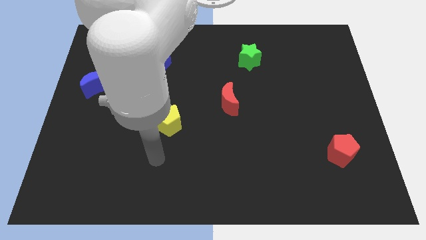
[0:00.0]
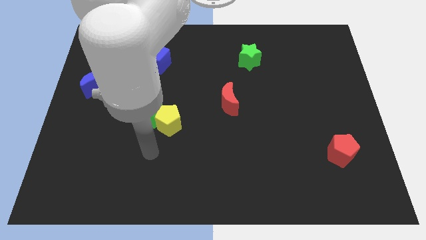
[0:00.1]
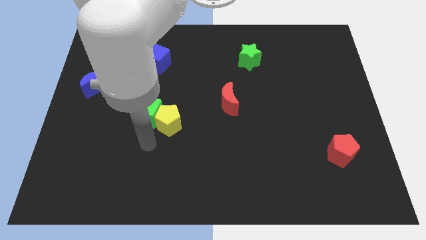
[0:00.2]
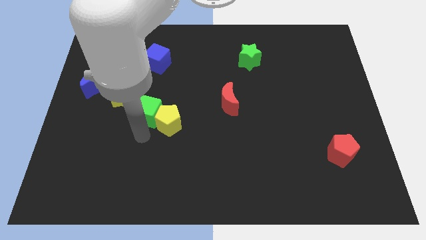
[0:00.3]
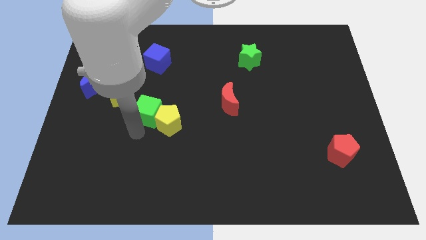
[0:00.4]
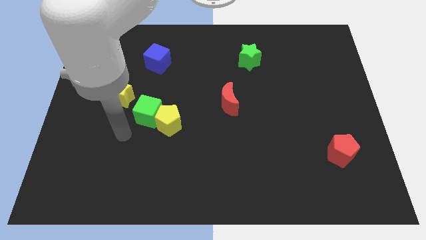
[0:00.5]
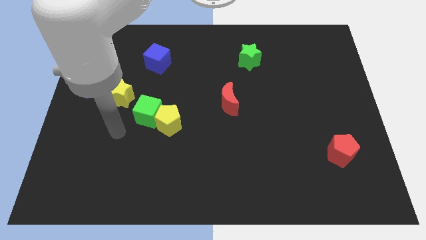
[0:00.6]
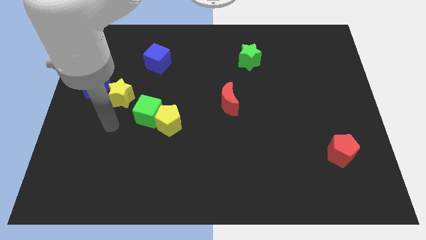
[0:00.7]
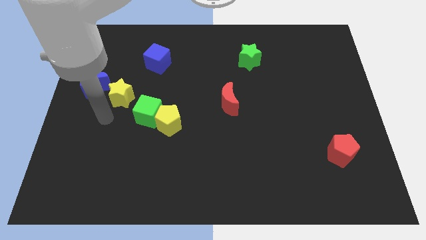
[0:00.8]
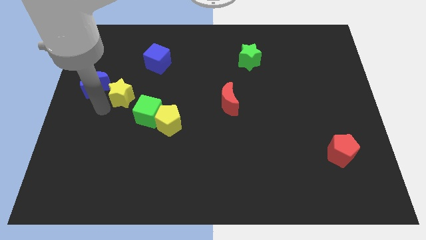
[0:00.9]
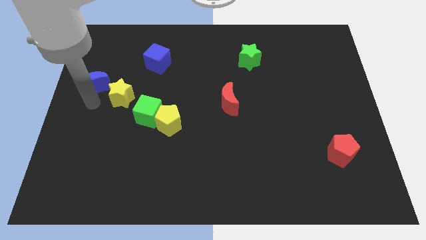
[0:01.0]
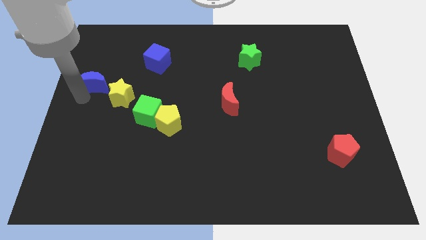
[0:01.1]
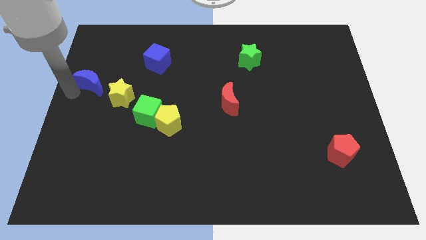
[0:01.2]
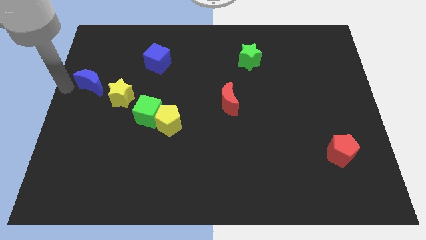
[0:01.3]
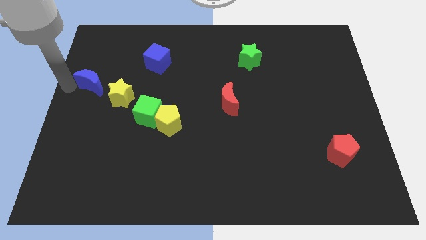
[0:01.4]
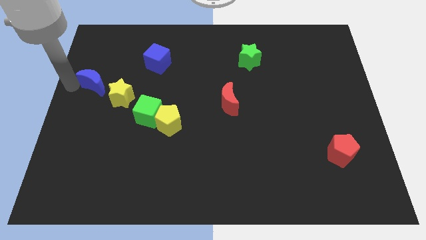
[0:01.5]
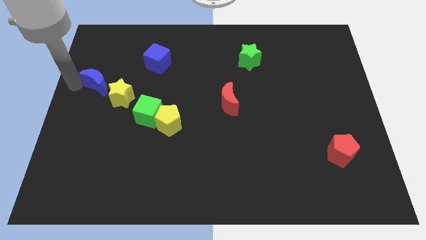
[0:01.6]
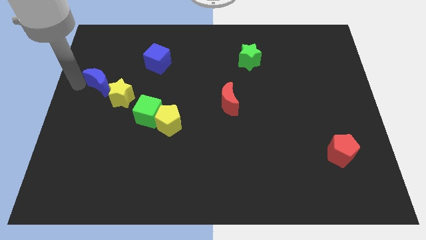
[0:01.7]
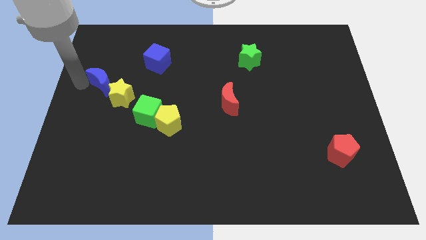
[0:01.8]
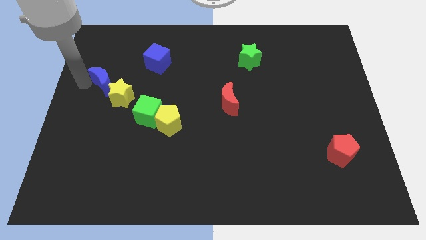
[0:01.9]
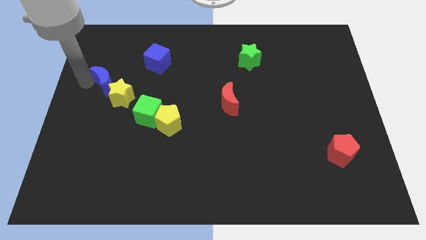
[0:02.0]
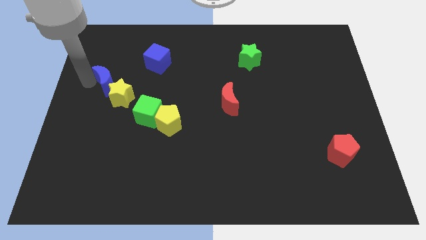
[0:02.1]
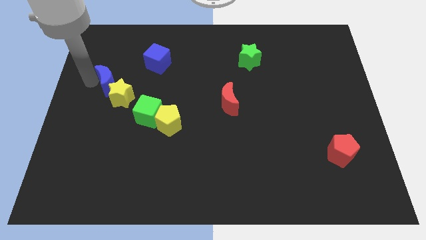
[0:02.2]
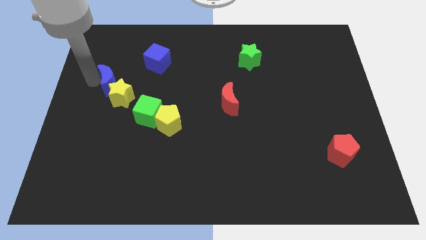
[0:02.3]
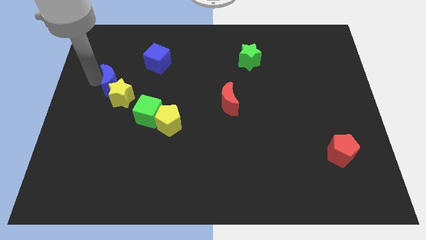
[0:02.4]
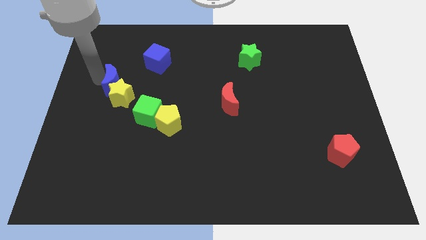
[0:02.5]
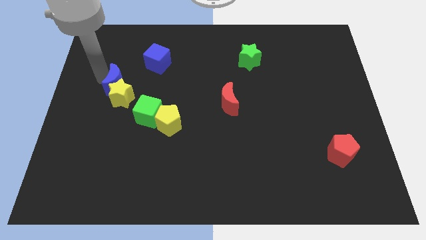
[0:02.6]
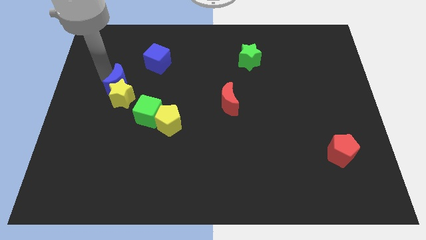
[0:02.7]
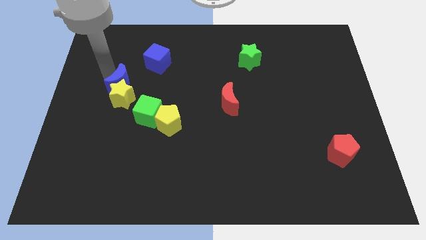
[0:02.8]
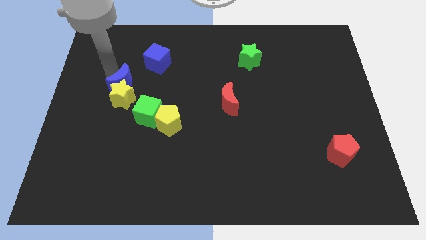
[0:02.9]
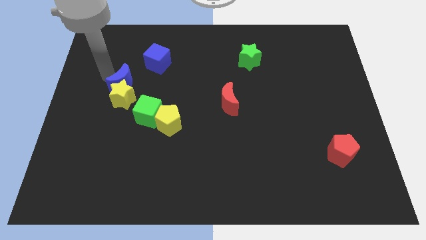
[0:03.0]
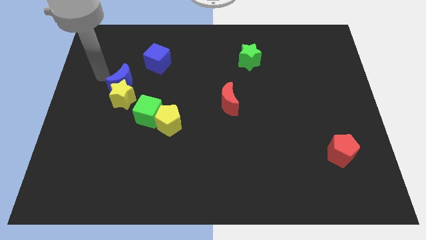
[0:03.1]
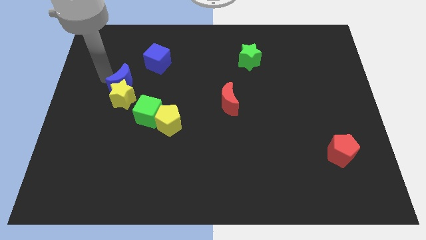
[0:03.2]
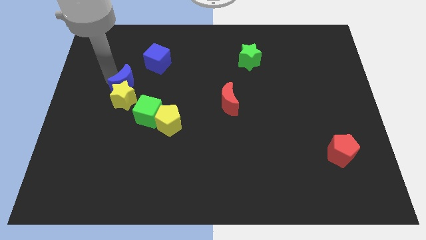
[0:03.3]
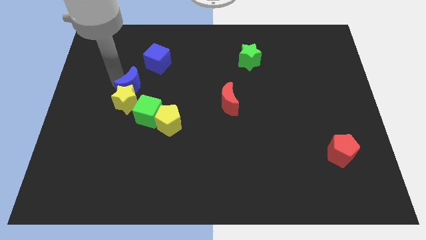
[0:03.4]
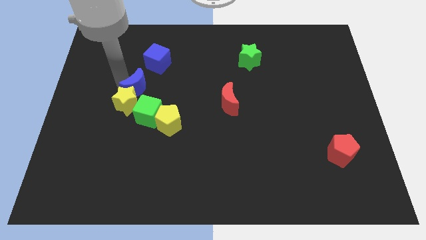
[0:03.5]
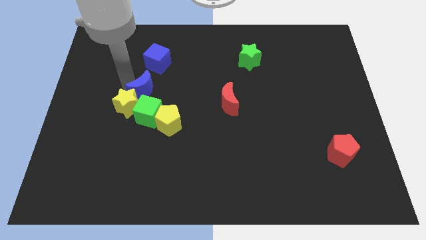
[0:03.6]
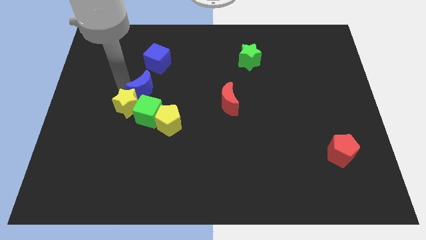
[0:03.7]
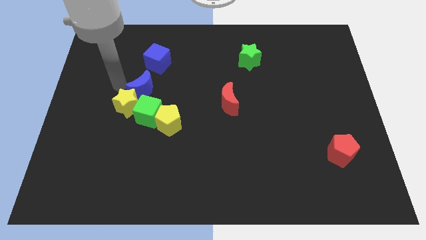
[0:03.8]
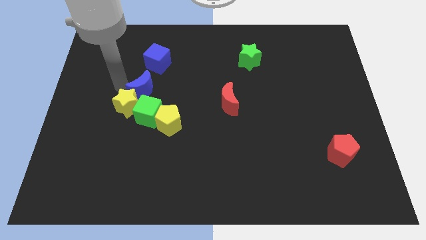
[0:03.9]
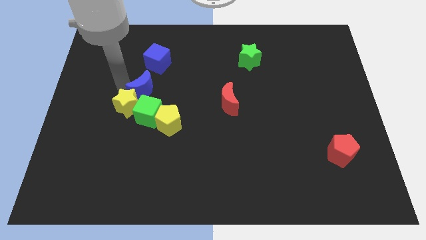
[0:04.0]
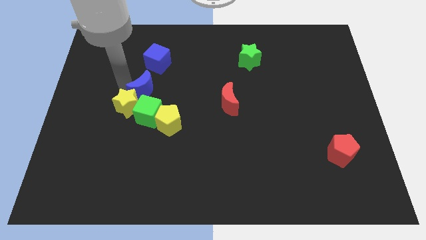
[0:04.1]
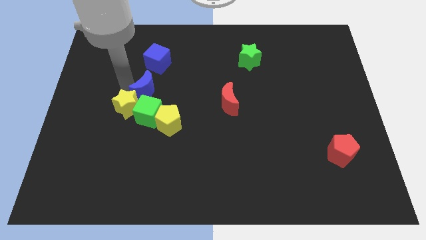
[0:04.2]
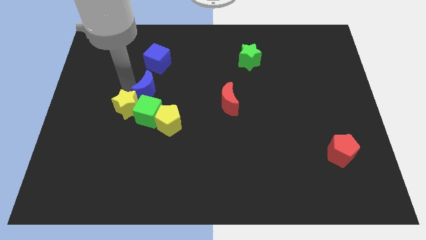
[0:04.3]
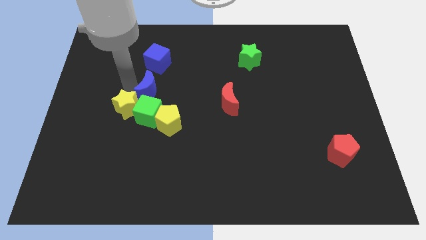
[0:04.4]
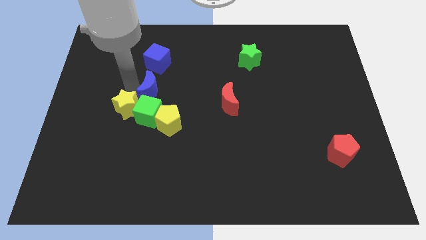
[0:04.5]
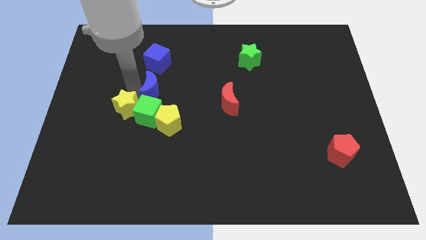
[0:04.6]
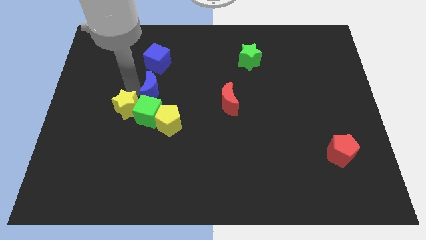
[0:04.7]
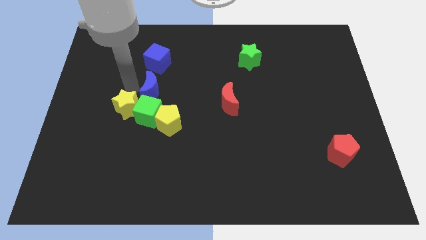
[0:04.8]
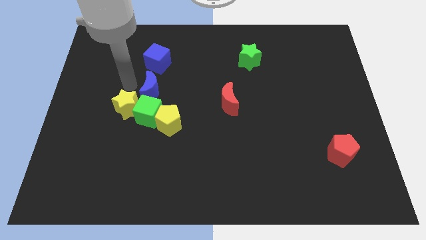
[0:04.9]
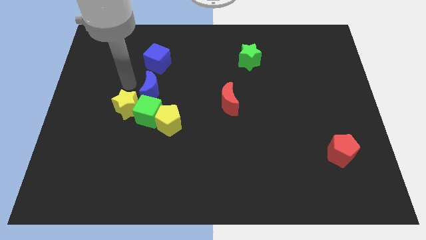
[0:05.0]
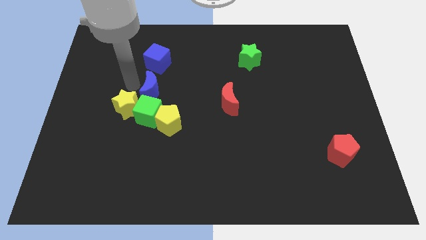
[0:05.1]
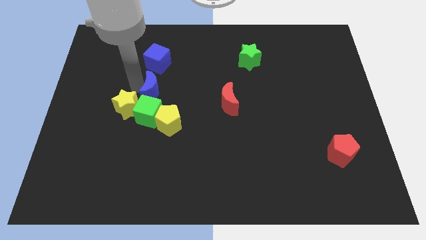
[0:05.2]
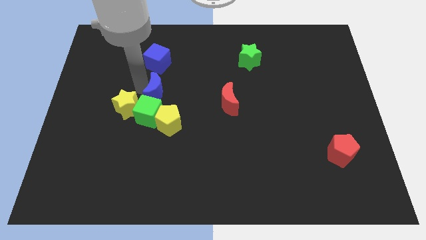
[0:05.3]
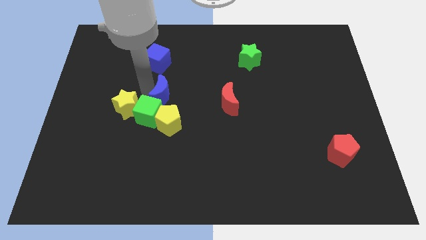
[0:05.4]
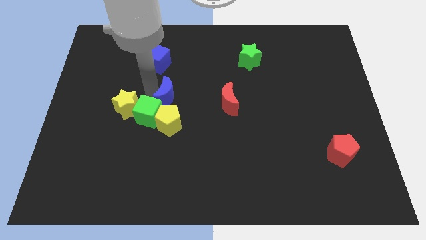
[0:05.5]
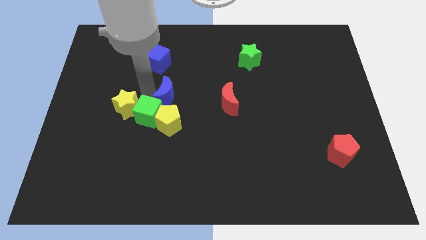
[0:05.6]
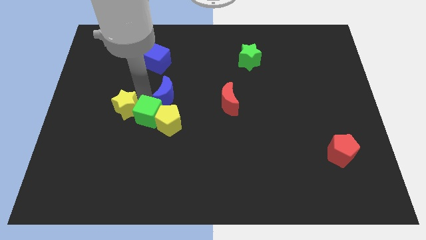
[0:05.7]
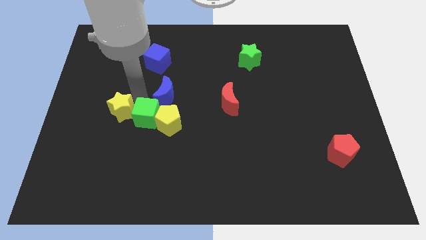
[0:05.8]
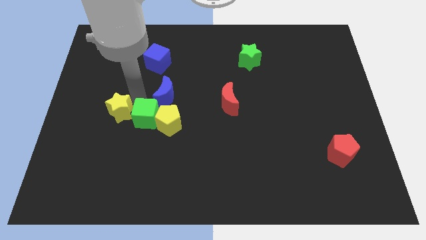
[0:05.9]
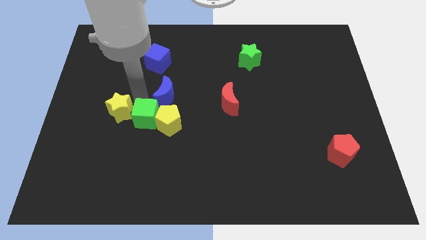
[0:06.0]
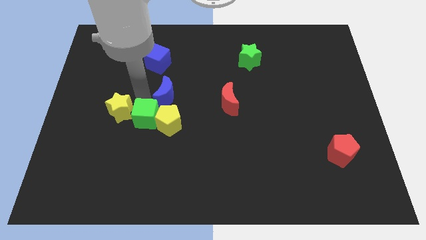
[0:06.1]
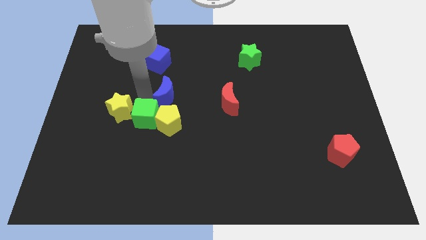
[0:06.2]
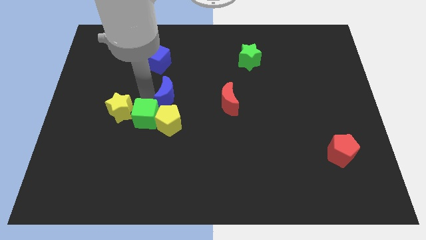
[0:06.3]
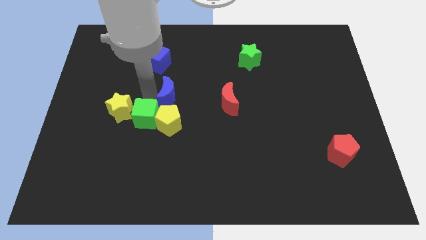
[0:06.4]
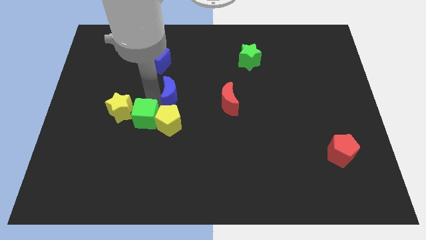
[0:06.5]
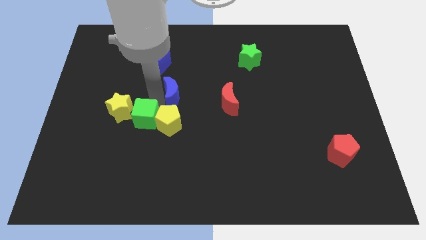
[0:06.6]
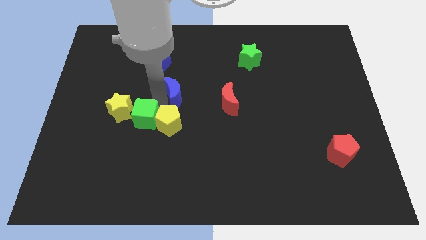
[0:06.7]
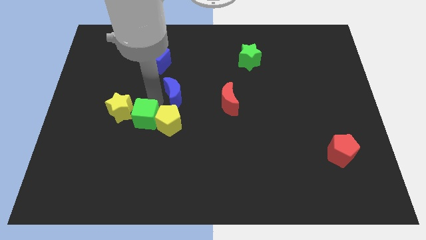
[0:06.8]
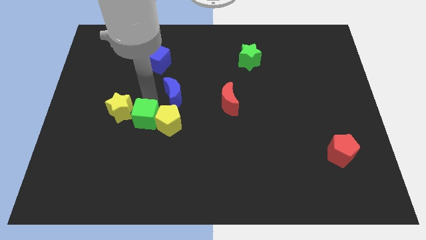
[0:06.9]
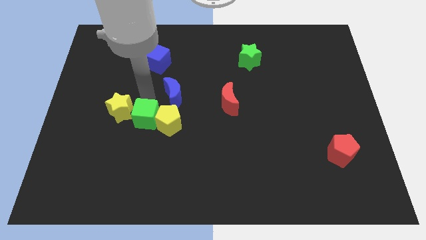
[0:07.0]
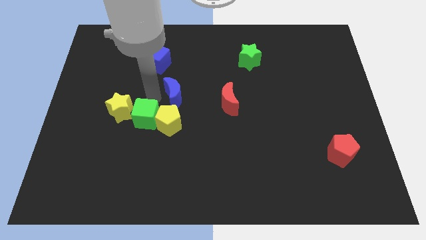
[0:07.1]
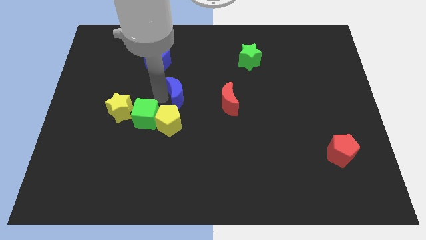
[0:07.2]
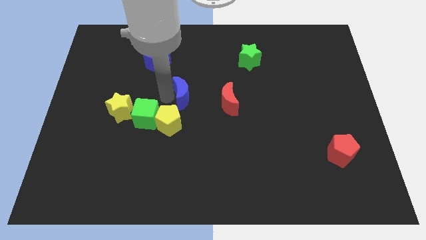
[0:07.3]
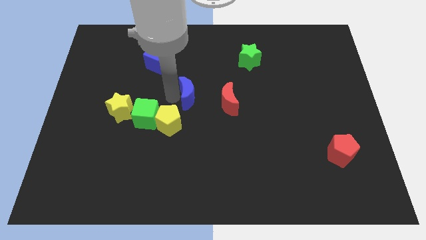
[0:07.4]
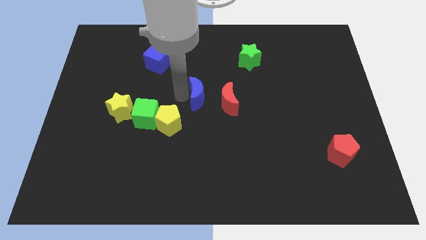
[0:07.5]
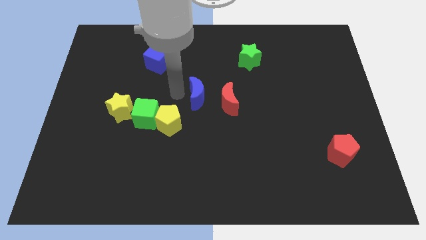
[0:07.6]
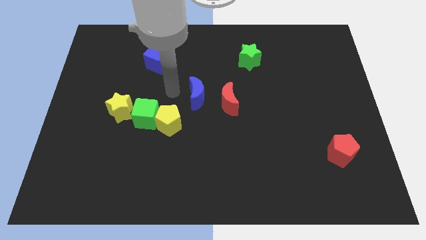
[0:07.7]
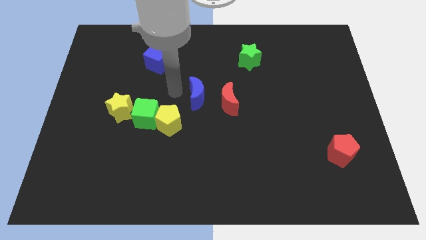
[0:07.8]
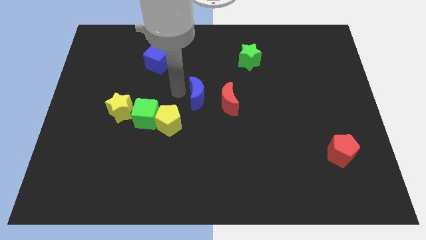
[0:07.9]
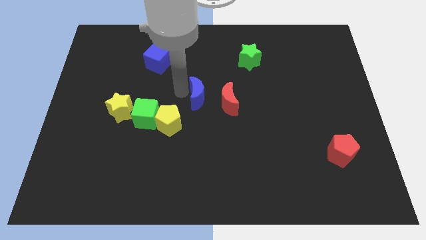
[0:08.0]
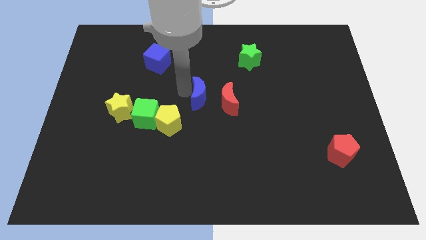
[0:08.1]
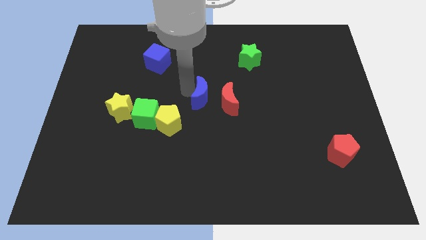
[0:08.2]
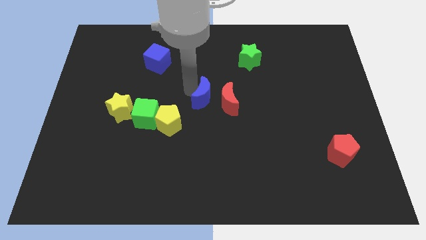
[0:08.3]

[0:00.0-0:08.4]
put the blue moon towards the red moon
